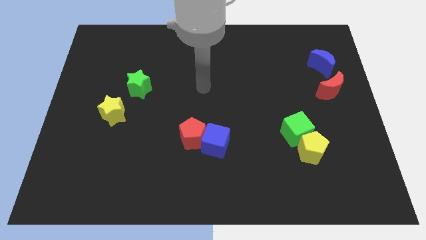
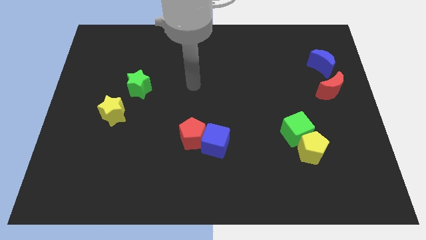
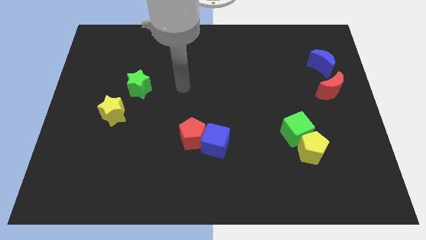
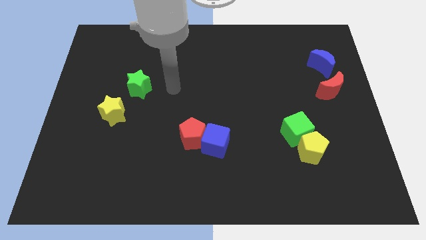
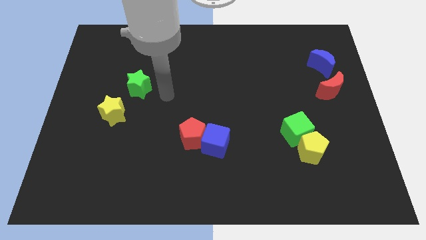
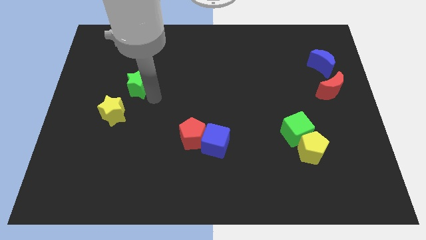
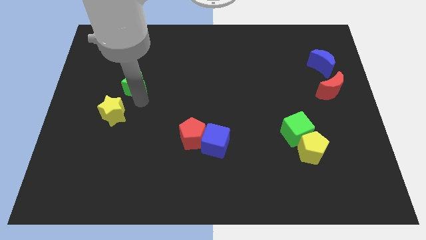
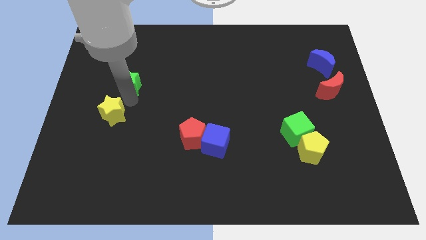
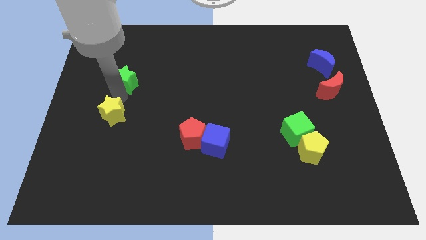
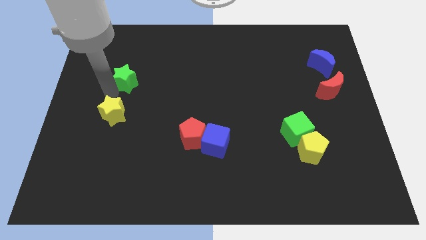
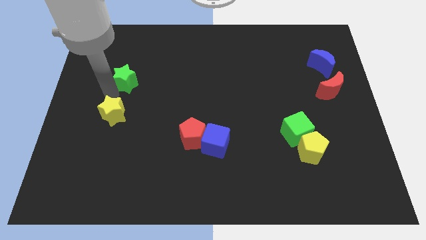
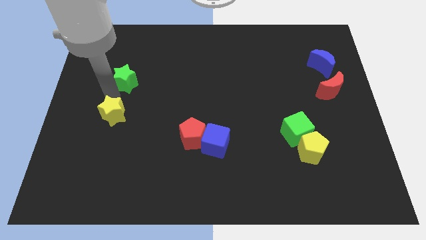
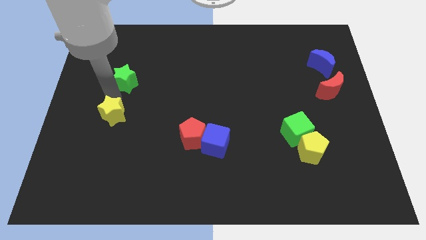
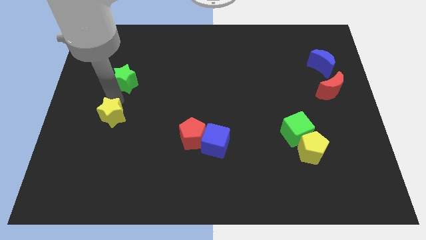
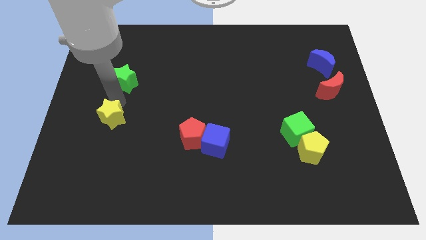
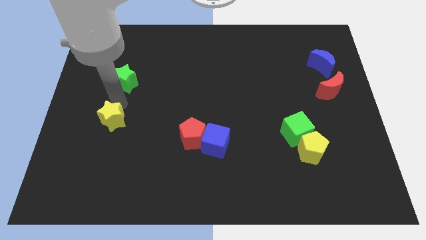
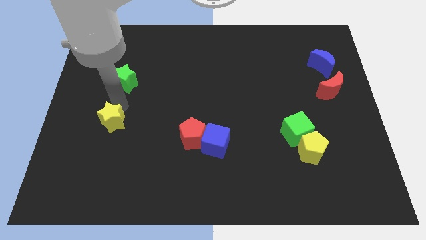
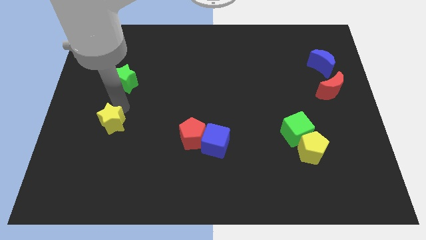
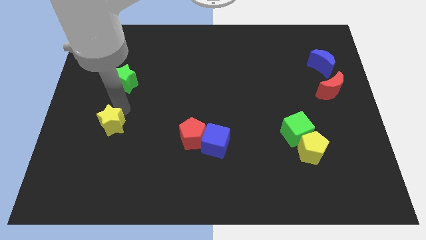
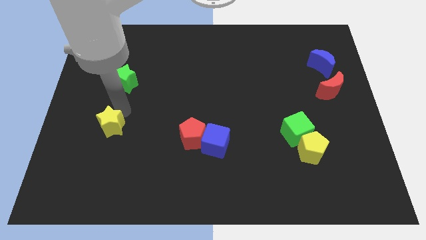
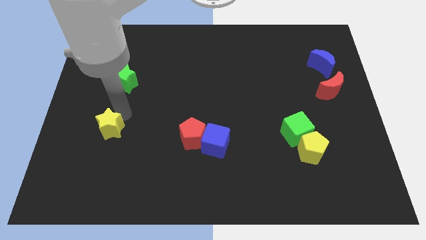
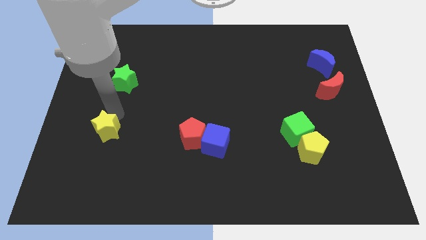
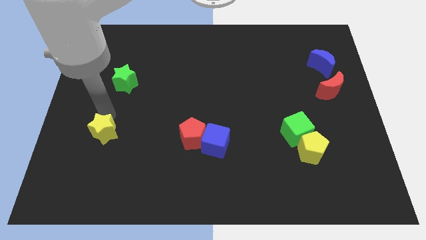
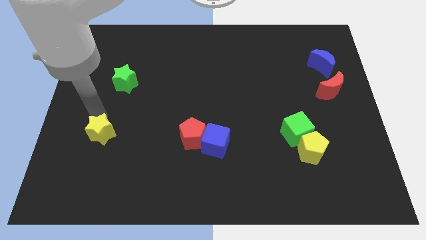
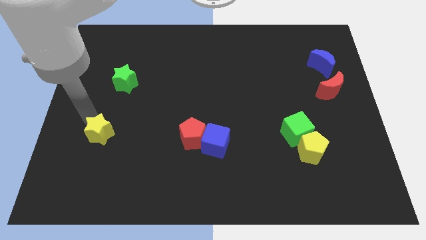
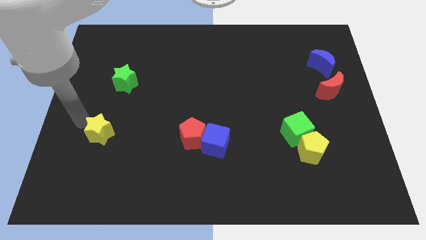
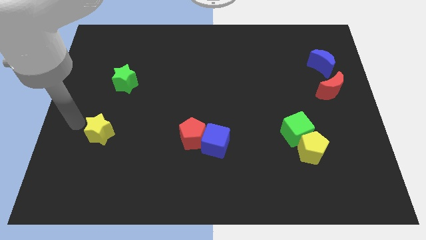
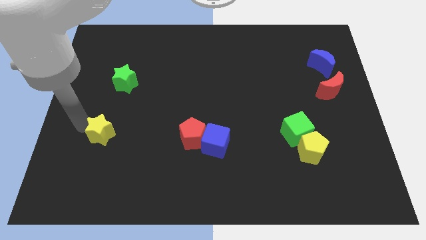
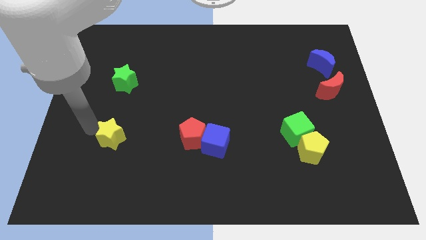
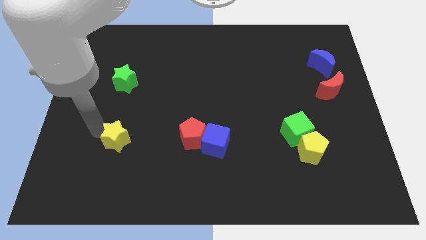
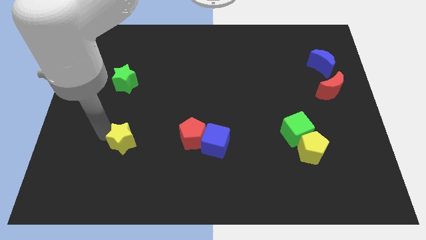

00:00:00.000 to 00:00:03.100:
slightly push the yellow star downwards and to the right

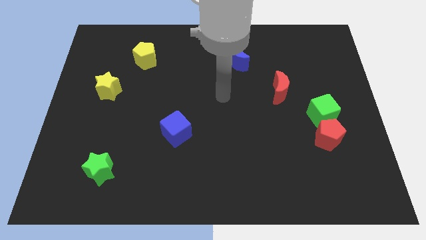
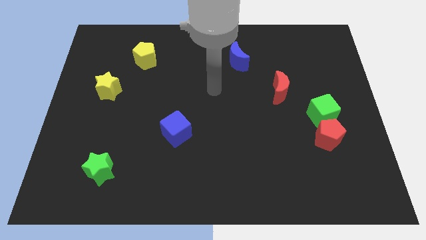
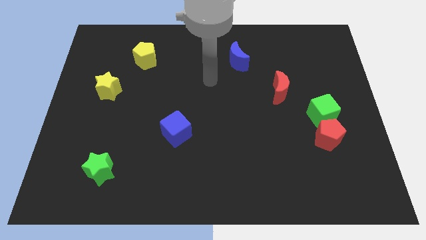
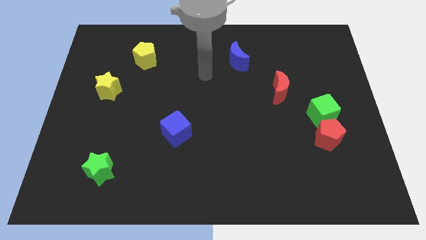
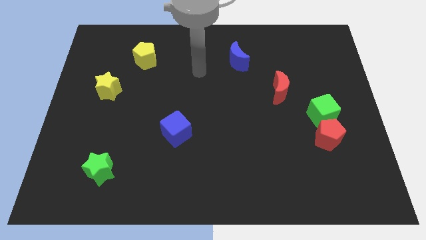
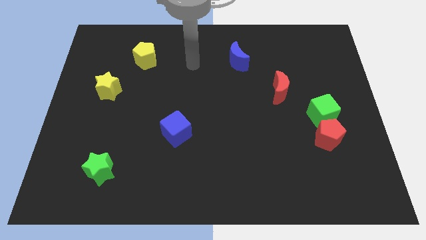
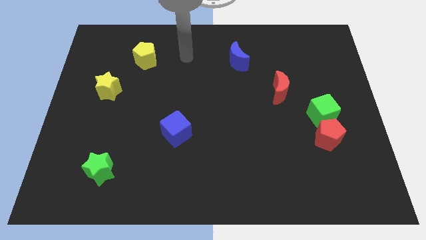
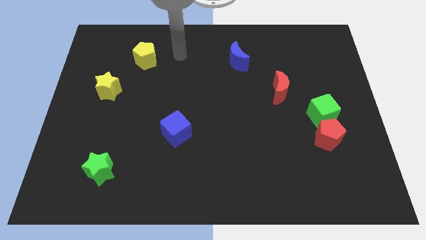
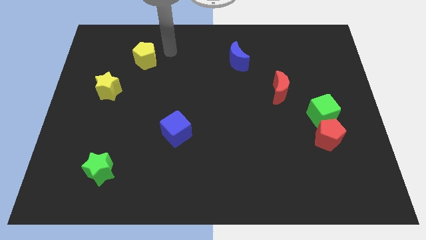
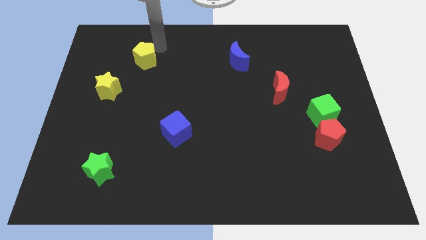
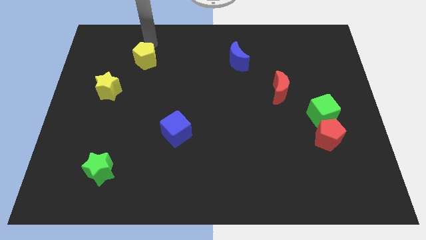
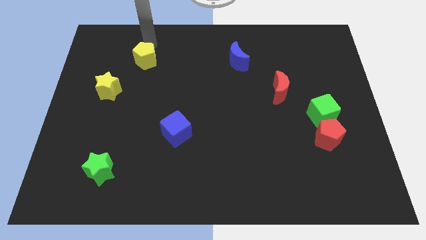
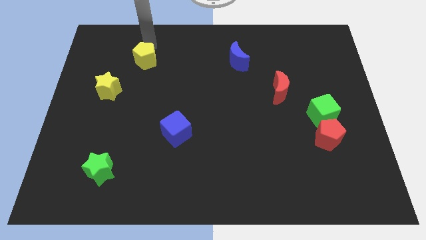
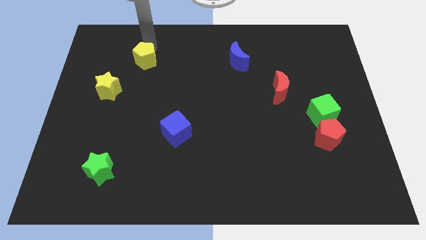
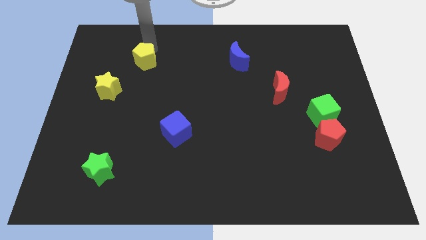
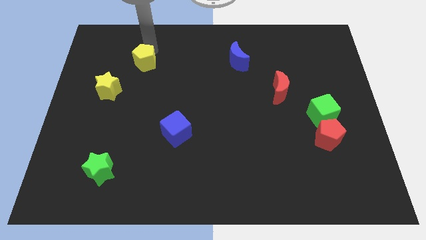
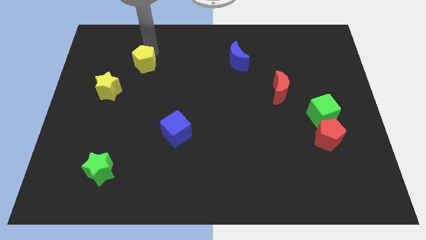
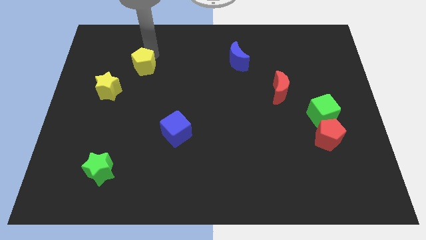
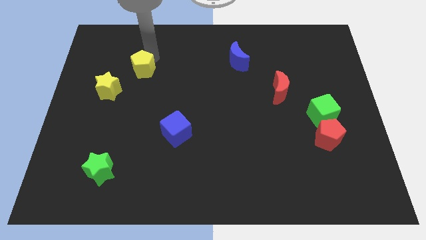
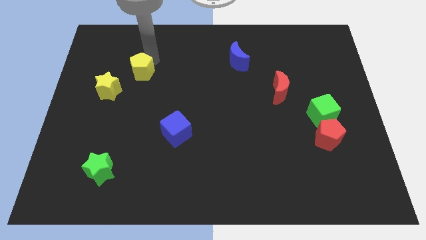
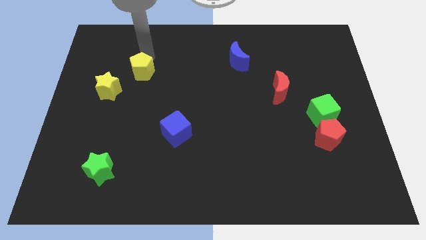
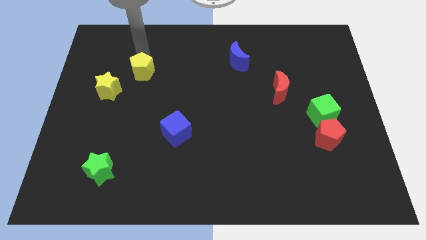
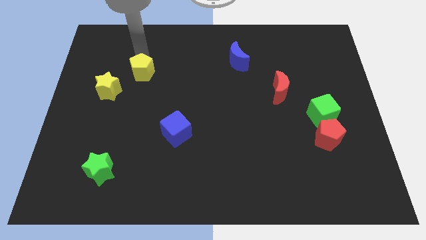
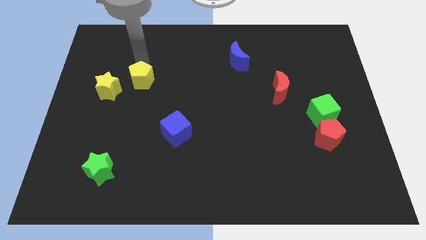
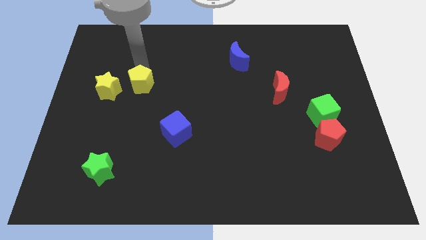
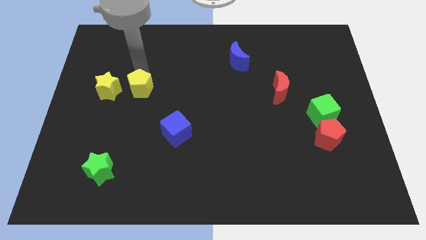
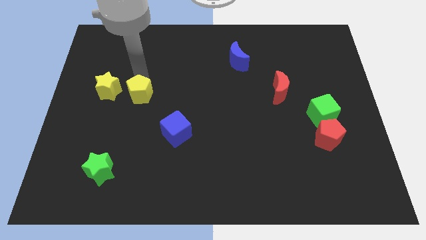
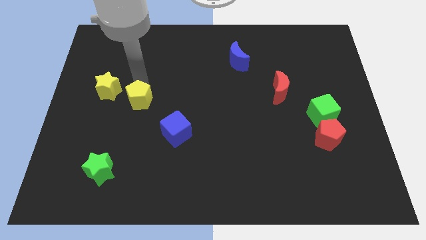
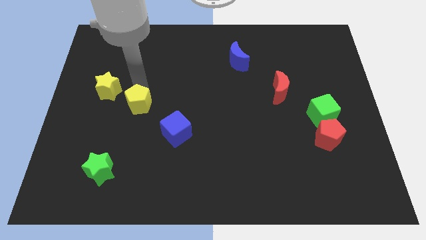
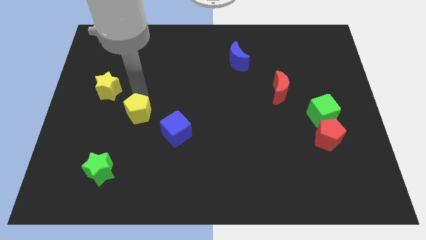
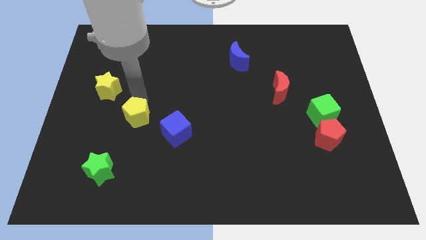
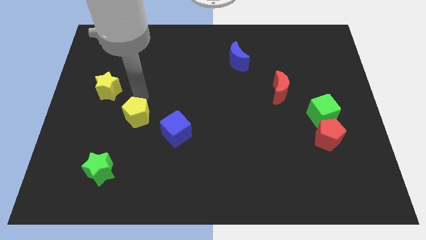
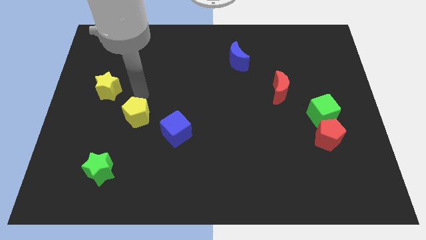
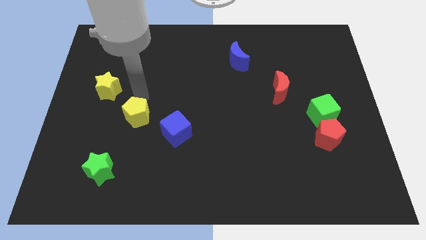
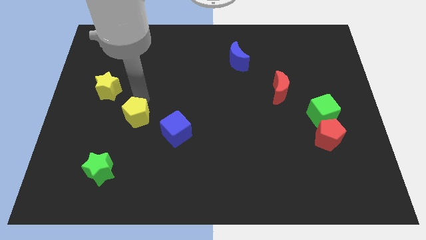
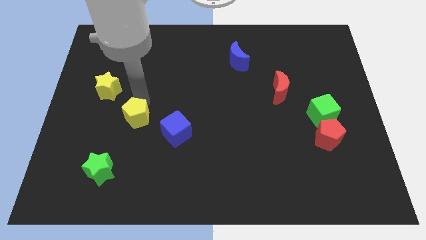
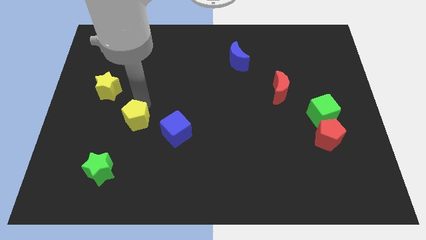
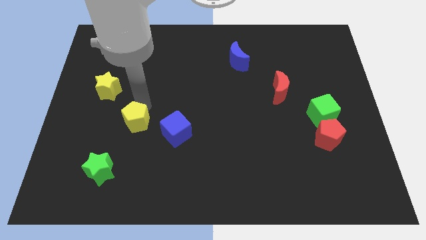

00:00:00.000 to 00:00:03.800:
move the yellow pentagon down

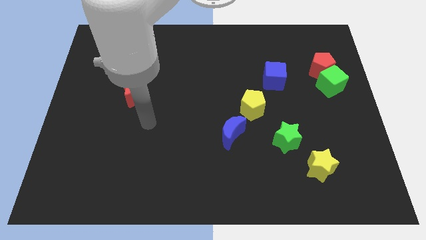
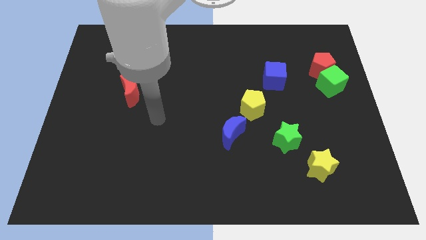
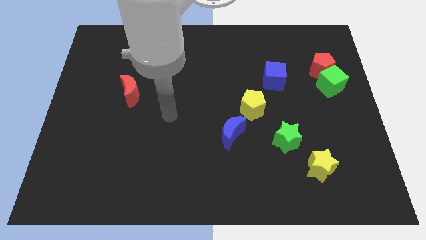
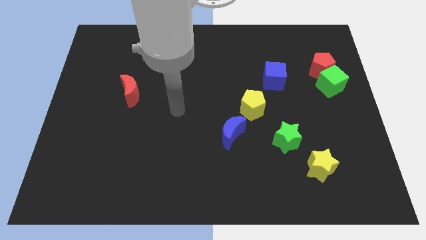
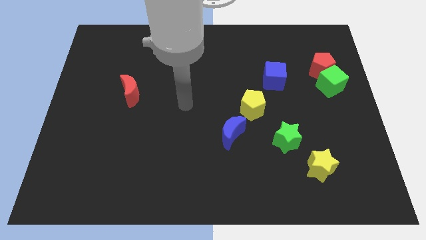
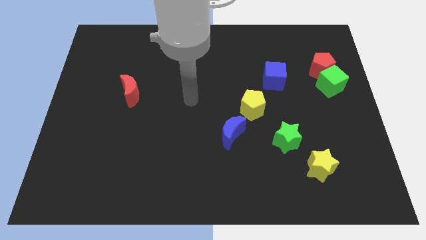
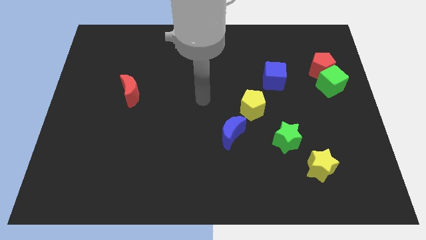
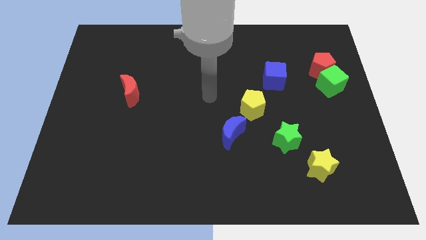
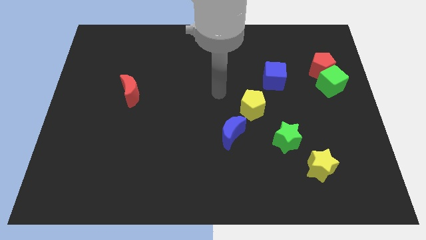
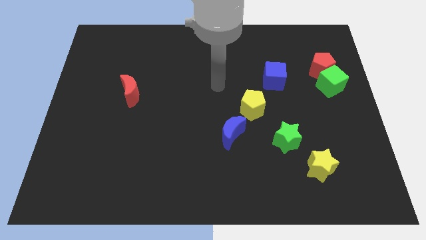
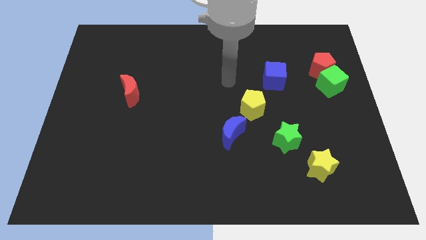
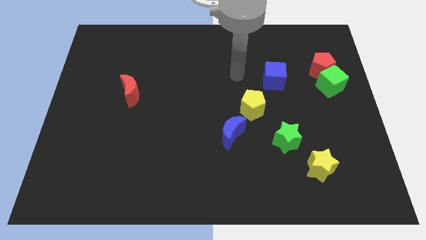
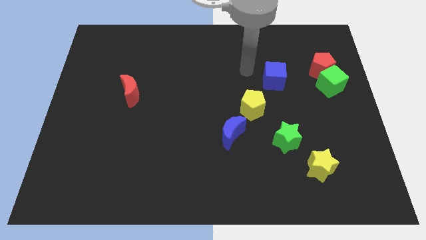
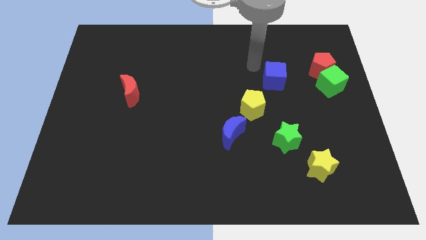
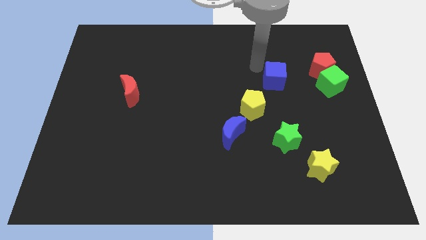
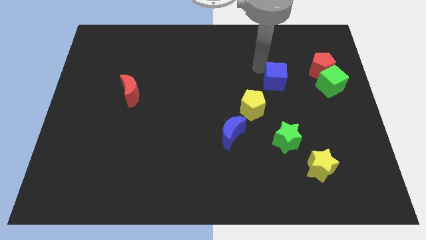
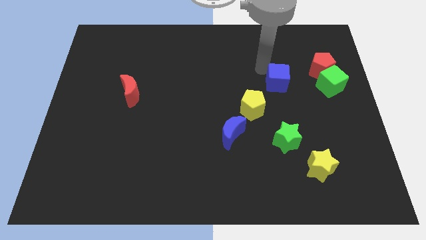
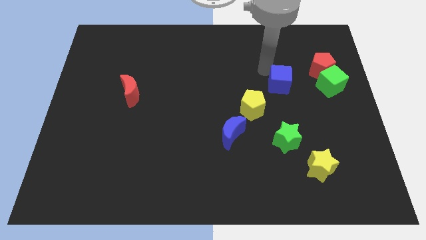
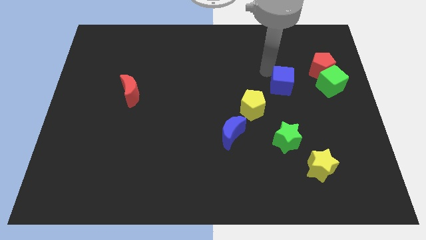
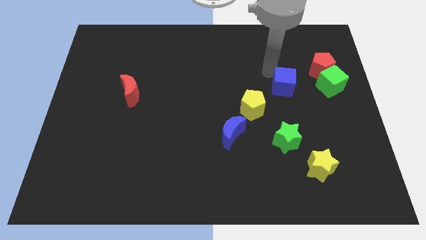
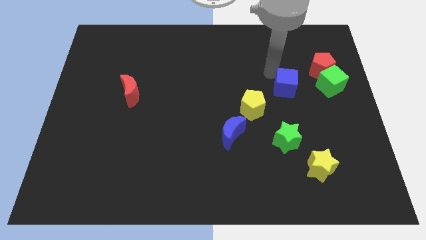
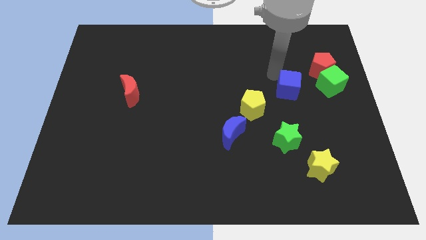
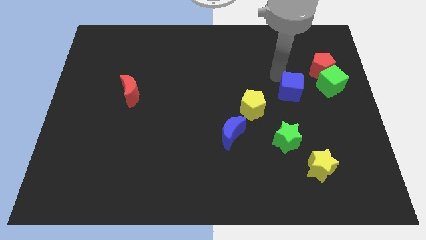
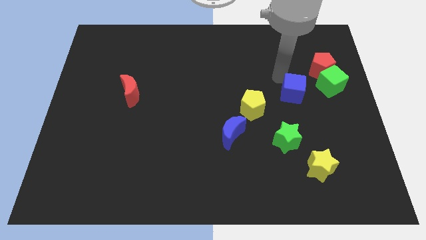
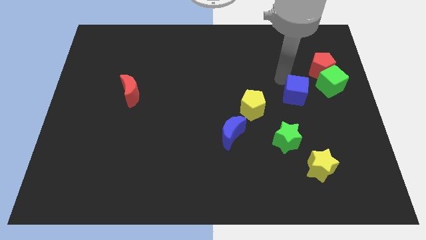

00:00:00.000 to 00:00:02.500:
slightly move the blue cube downwards and to the right diagonally
